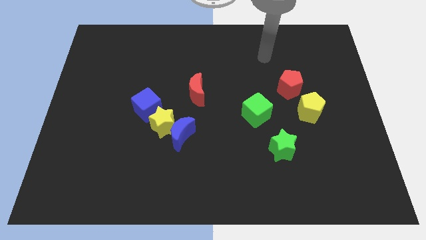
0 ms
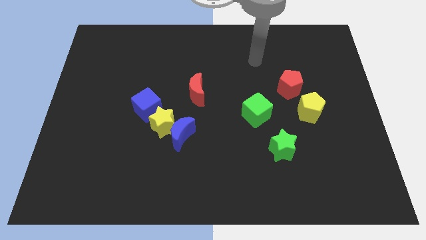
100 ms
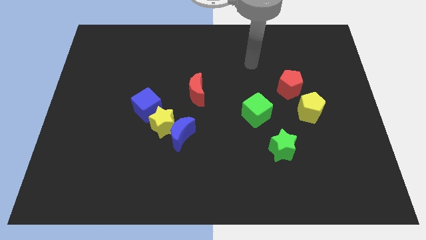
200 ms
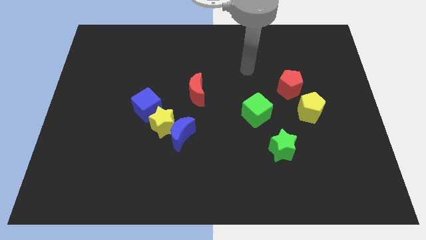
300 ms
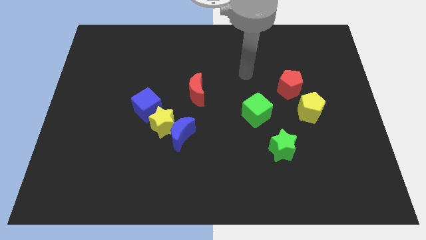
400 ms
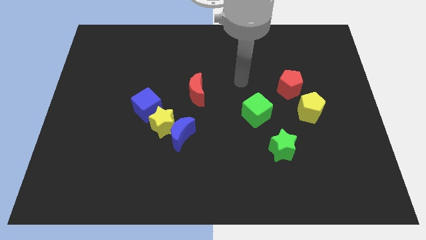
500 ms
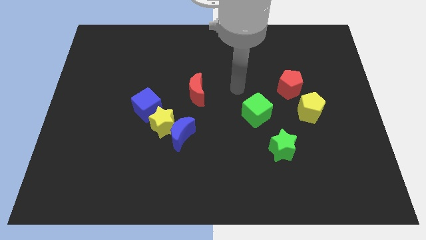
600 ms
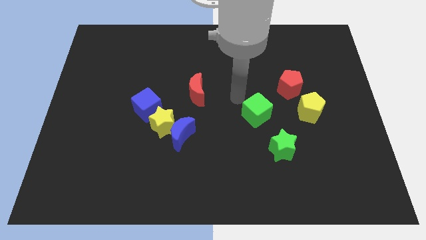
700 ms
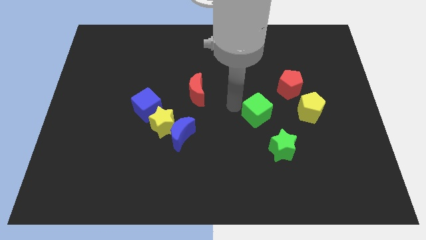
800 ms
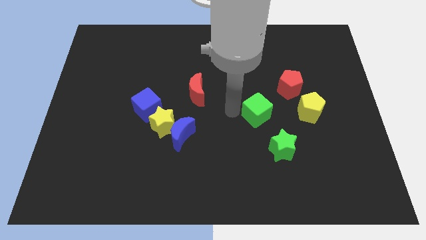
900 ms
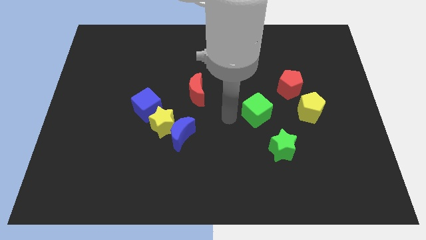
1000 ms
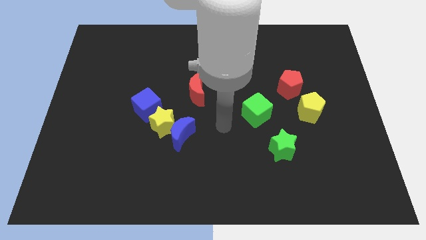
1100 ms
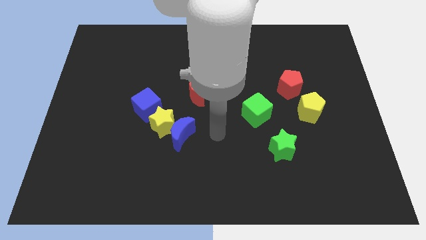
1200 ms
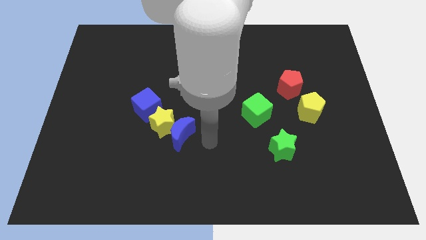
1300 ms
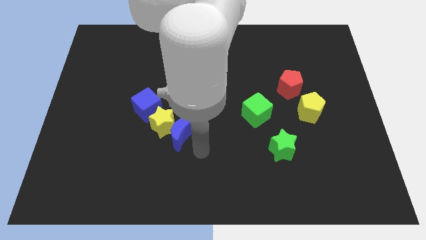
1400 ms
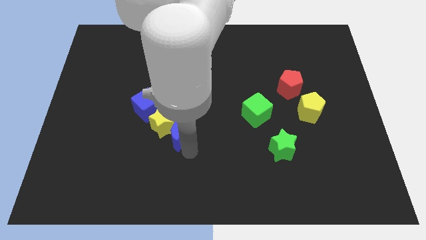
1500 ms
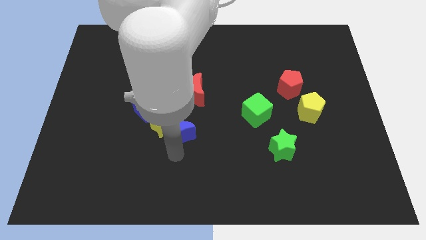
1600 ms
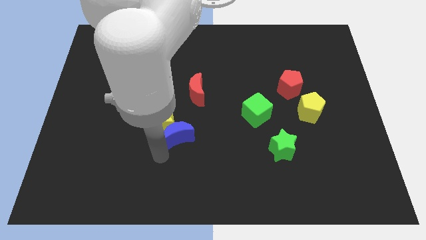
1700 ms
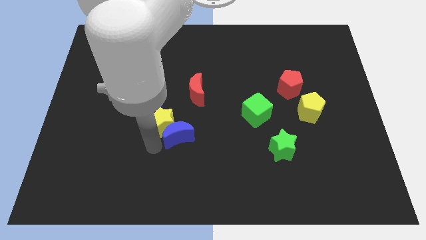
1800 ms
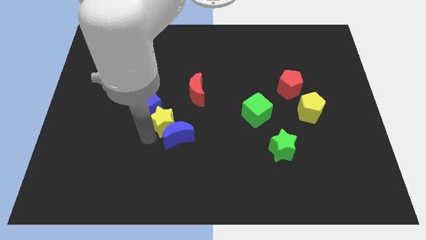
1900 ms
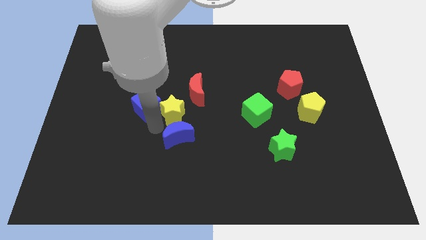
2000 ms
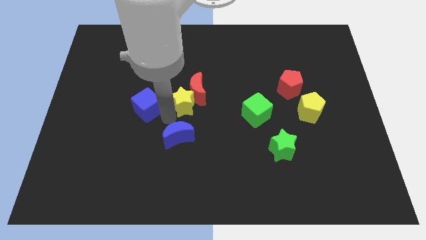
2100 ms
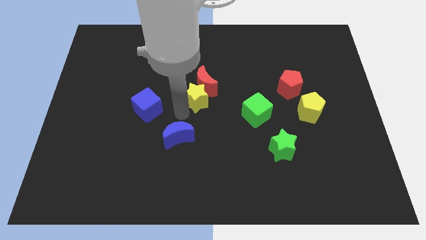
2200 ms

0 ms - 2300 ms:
separate the blue moon from the yellow star

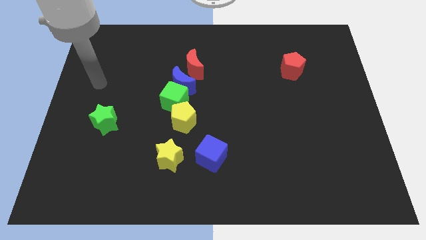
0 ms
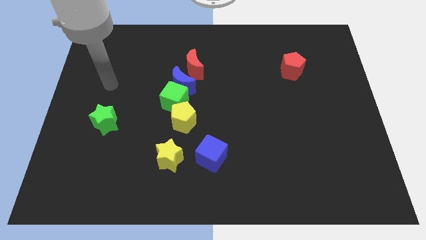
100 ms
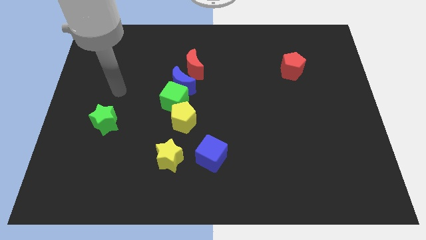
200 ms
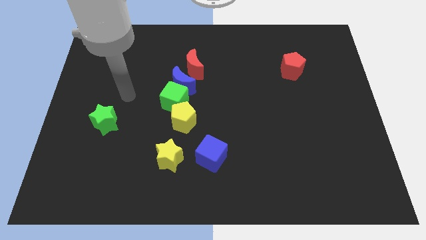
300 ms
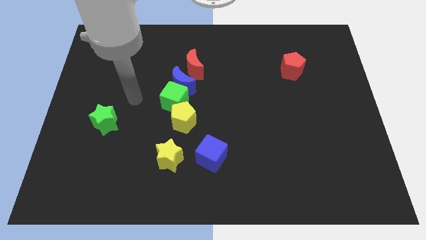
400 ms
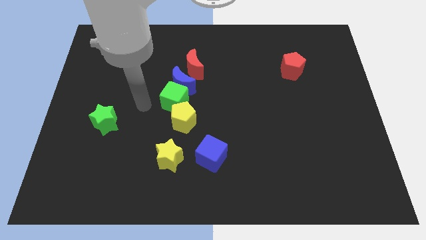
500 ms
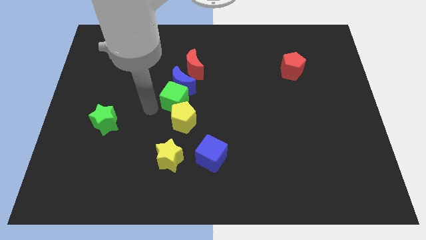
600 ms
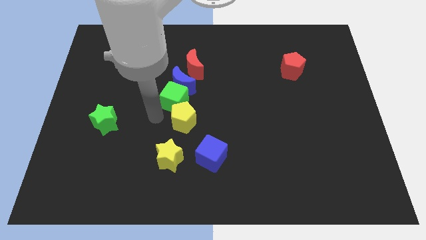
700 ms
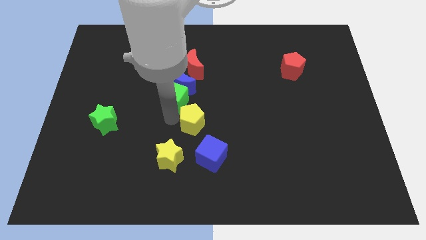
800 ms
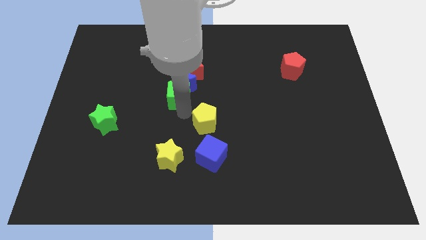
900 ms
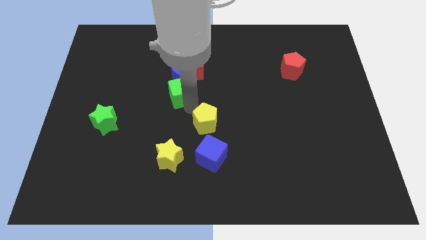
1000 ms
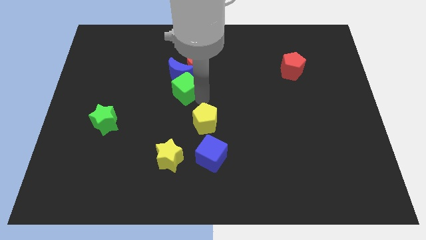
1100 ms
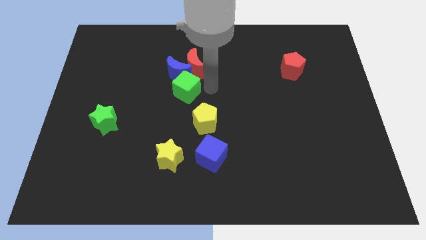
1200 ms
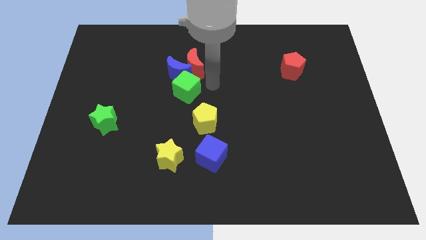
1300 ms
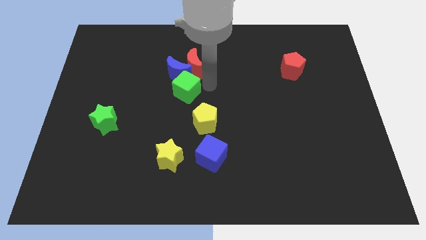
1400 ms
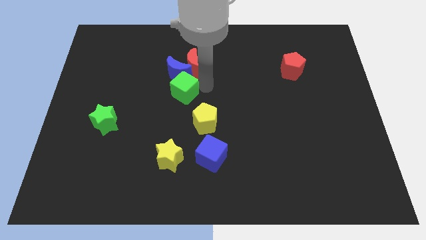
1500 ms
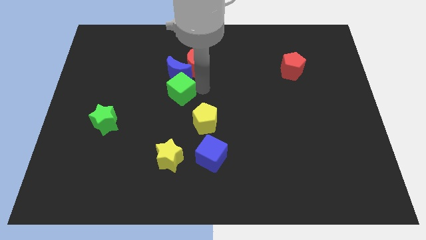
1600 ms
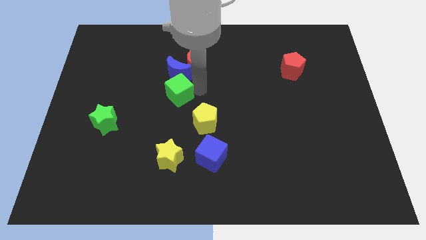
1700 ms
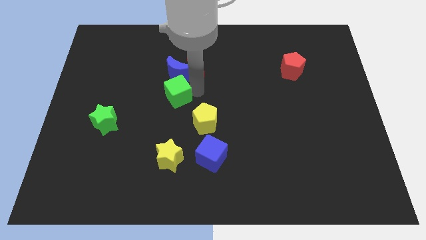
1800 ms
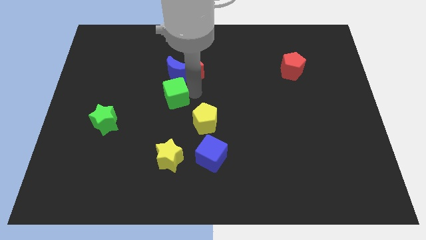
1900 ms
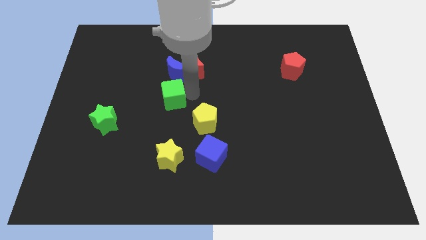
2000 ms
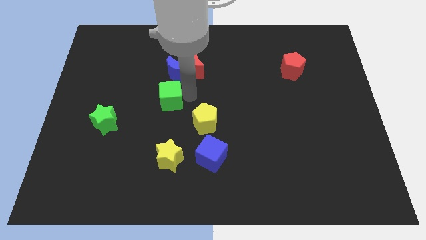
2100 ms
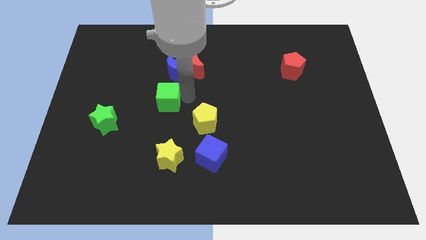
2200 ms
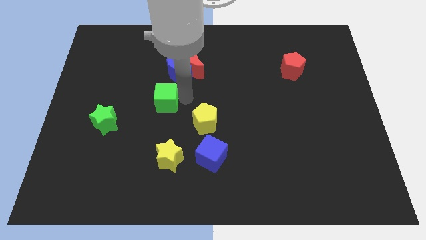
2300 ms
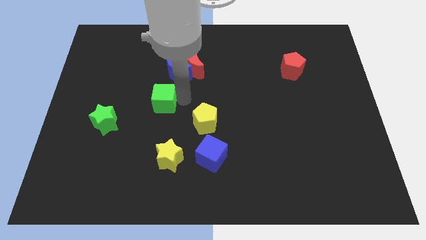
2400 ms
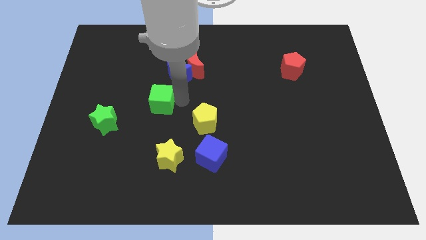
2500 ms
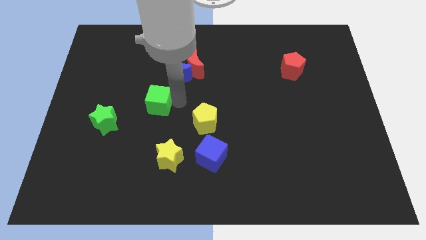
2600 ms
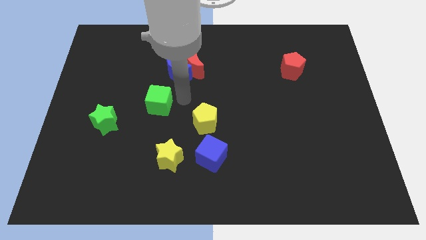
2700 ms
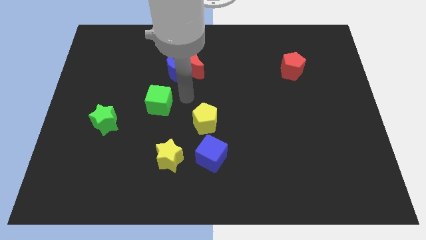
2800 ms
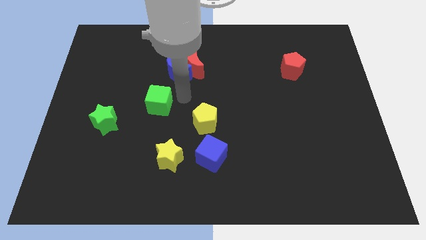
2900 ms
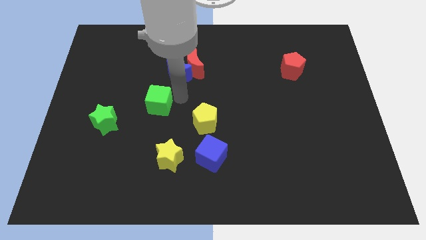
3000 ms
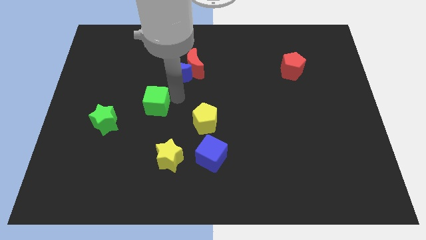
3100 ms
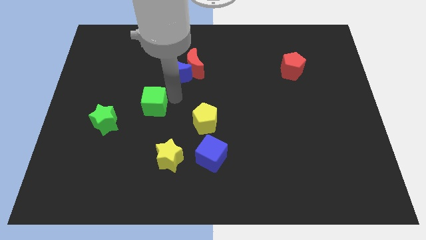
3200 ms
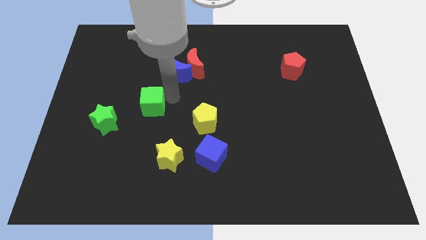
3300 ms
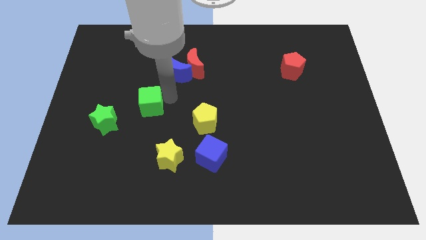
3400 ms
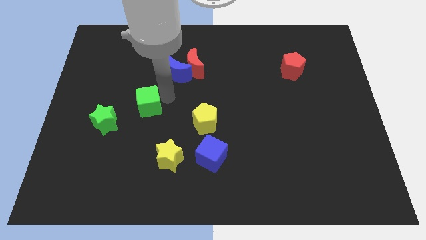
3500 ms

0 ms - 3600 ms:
move the green cube away from the blue moon and yellow pentagon

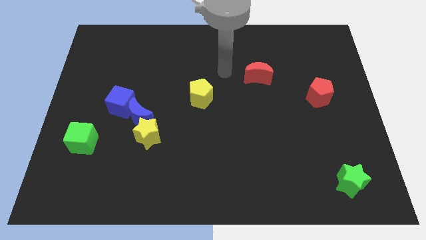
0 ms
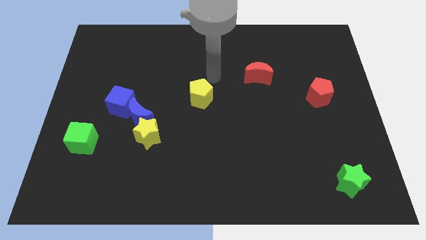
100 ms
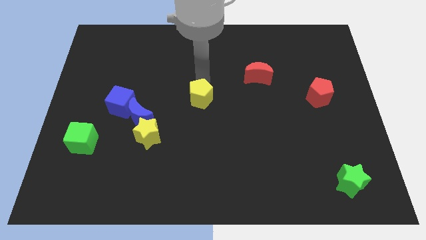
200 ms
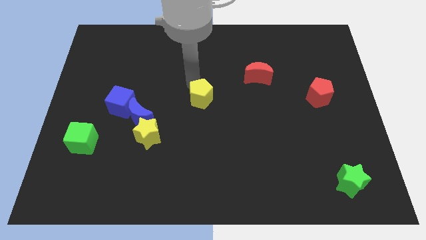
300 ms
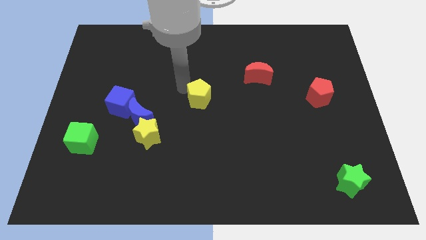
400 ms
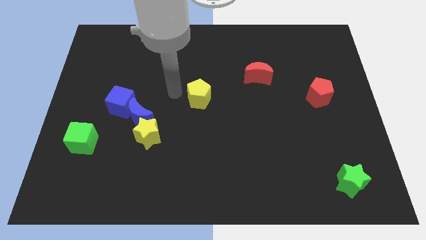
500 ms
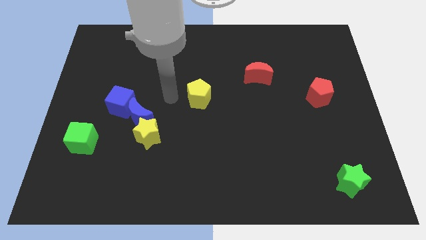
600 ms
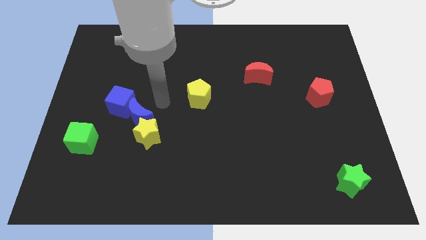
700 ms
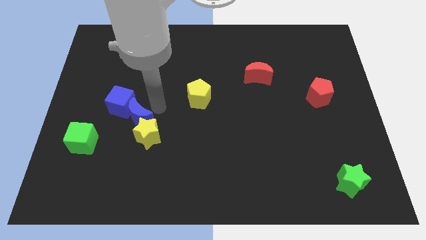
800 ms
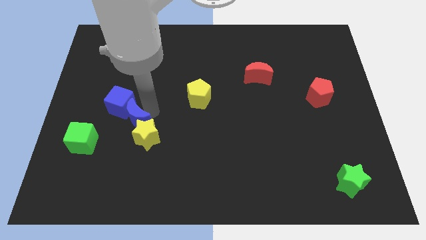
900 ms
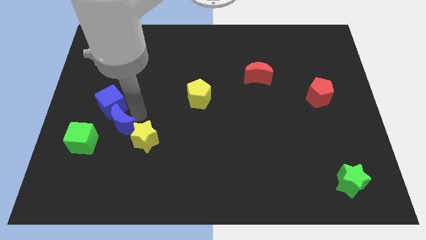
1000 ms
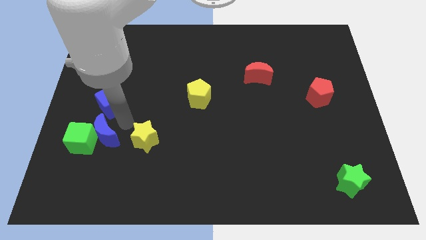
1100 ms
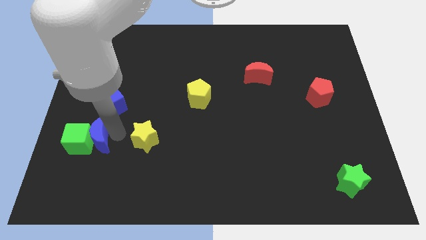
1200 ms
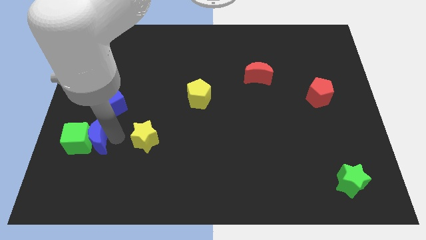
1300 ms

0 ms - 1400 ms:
separate the yellow star from the blue moon

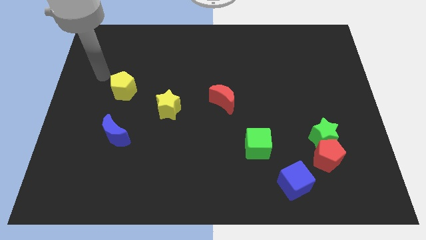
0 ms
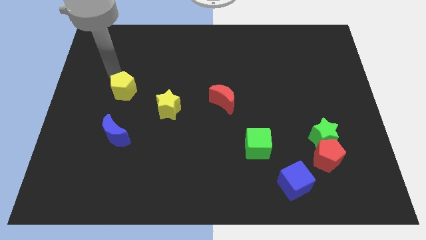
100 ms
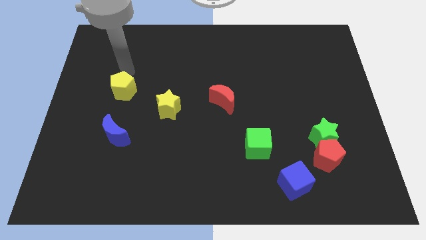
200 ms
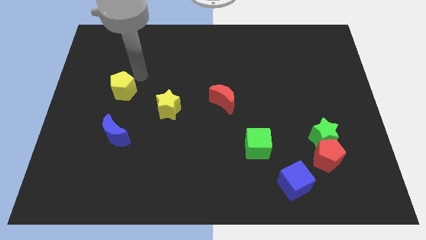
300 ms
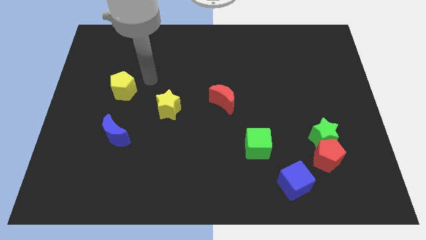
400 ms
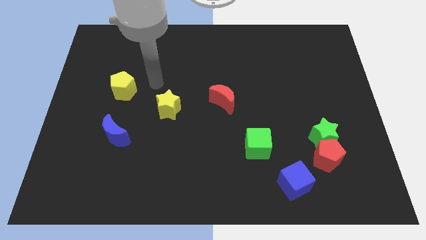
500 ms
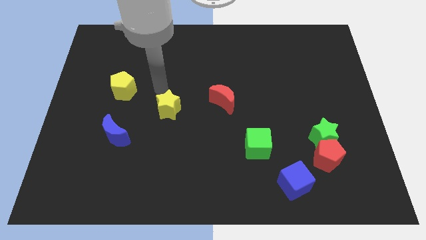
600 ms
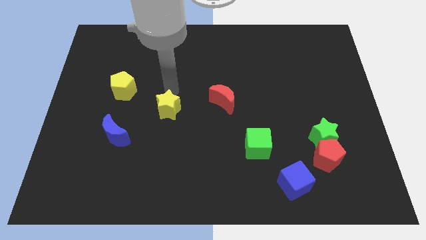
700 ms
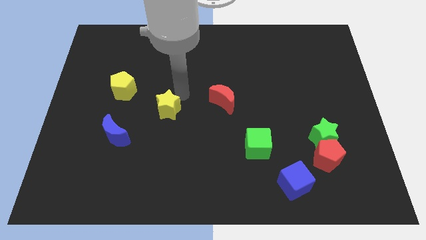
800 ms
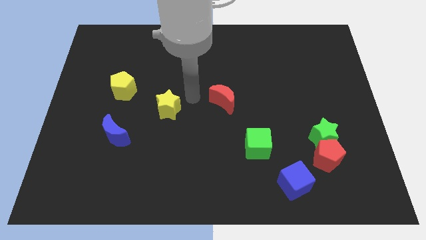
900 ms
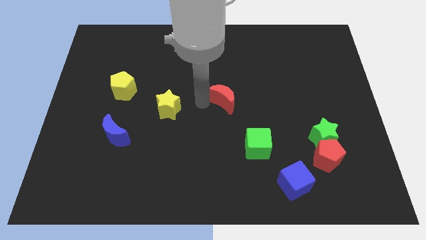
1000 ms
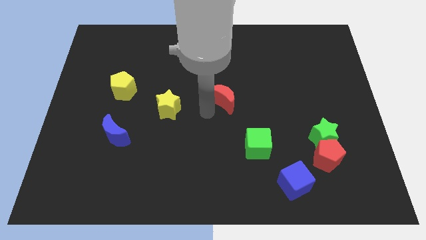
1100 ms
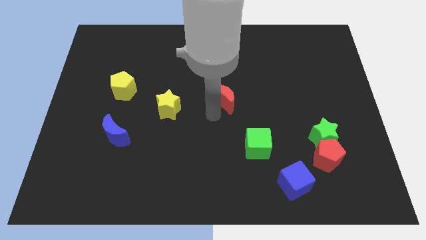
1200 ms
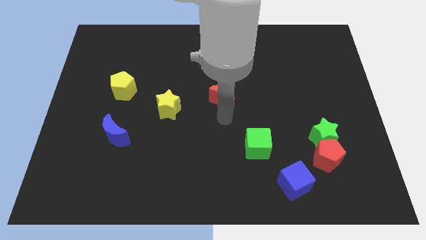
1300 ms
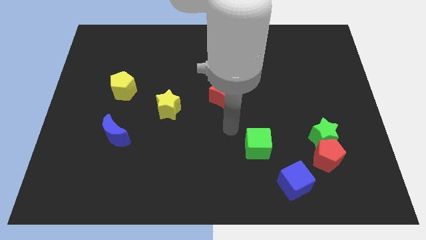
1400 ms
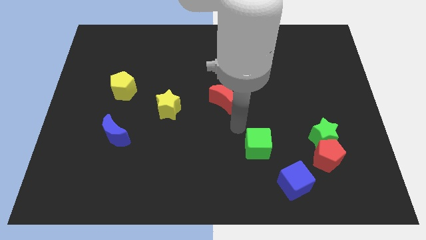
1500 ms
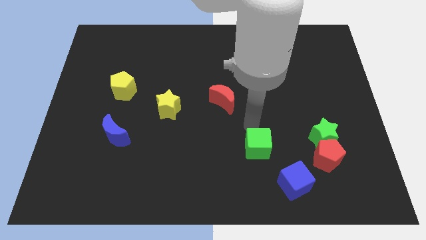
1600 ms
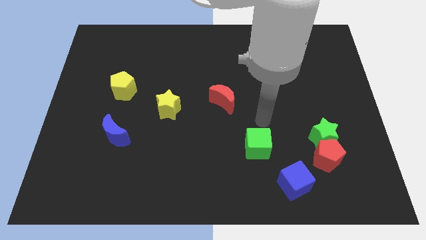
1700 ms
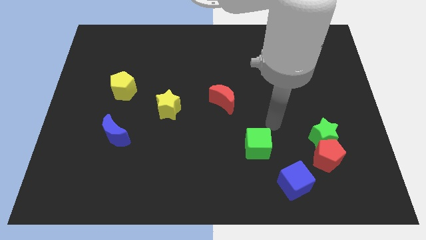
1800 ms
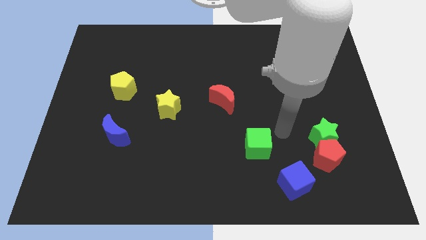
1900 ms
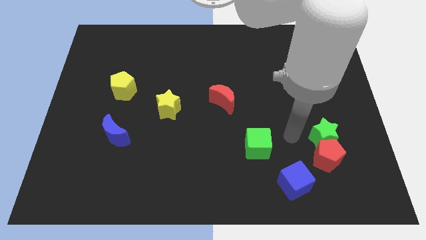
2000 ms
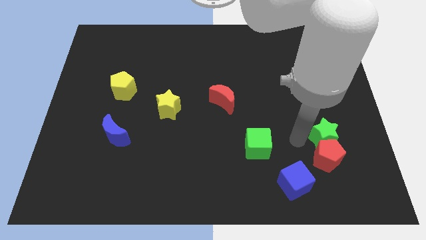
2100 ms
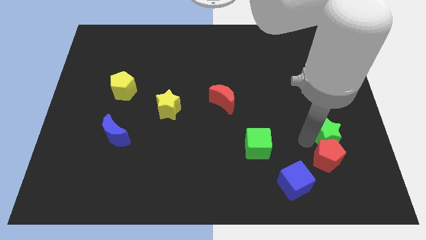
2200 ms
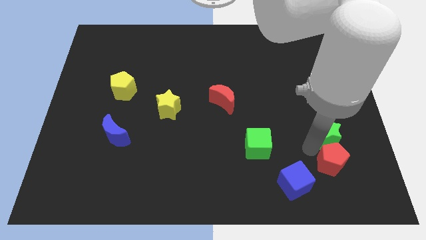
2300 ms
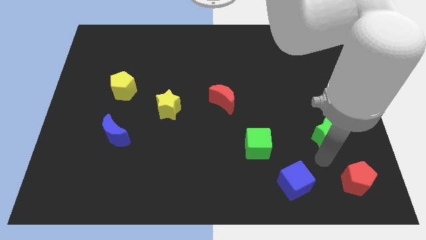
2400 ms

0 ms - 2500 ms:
move the green star away from the red pentagon
